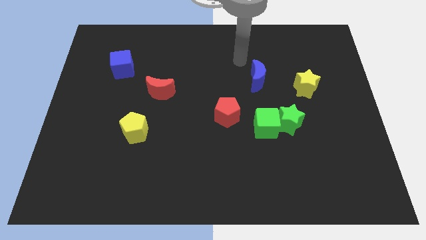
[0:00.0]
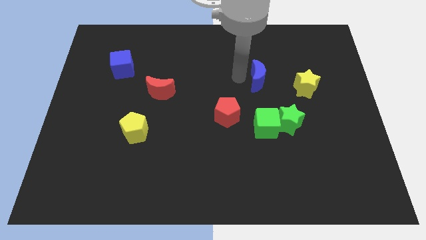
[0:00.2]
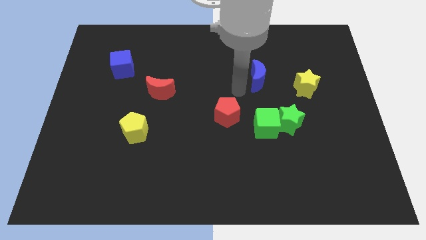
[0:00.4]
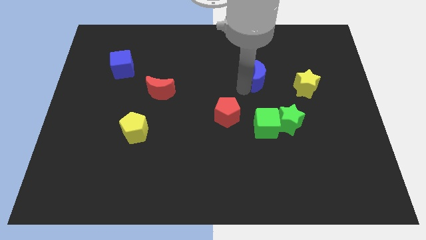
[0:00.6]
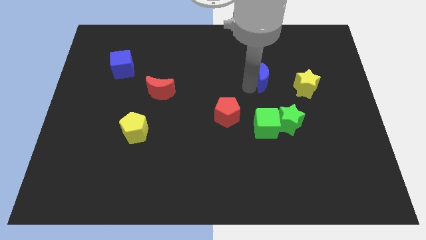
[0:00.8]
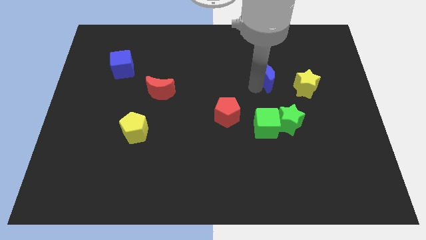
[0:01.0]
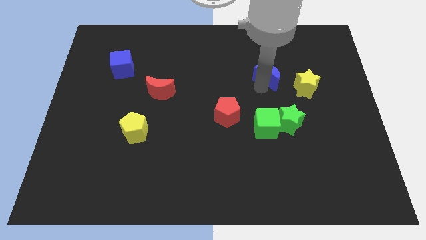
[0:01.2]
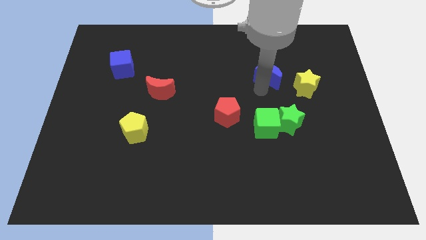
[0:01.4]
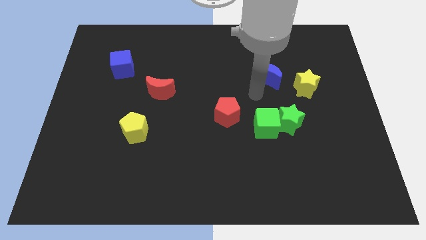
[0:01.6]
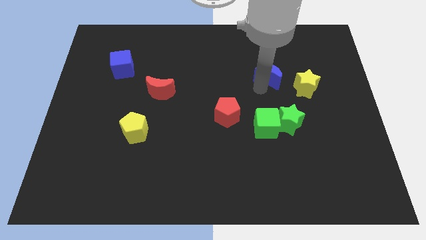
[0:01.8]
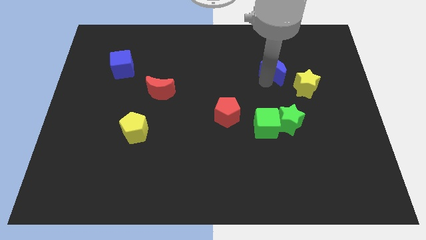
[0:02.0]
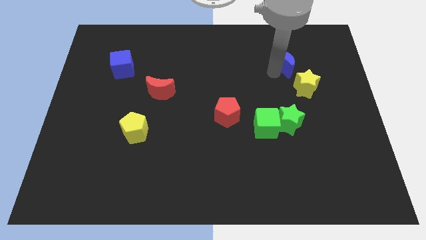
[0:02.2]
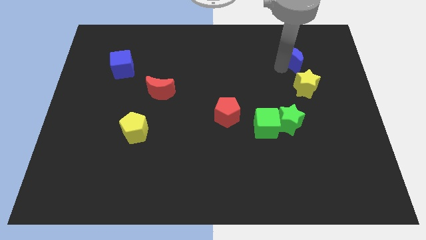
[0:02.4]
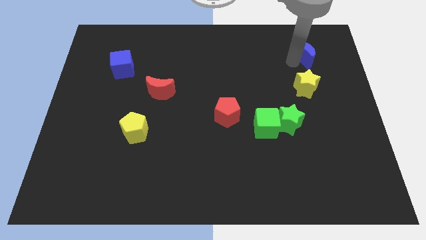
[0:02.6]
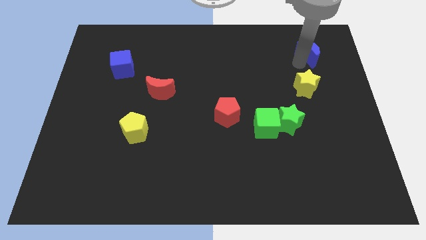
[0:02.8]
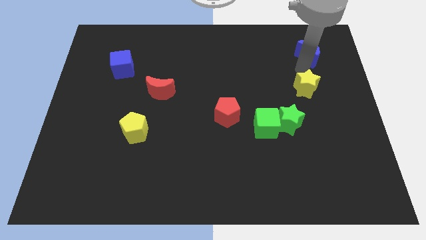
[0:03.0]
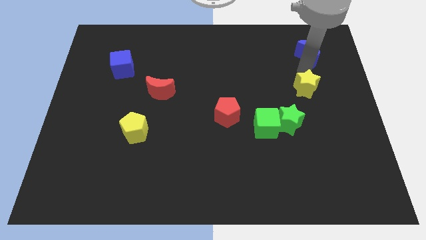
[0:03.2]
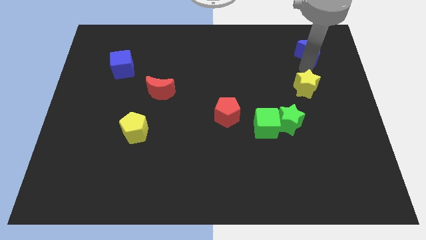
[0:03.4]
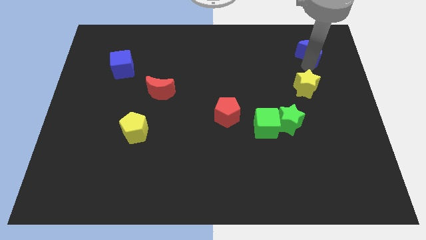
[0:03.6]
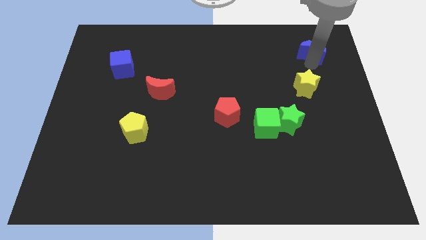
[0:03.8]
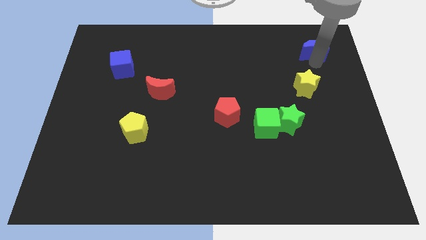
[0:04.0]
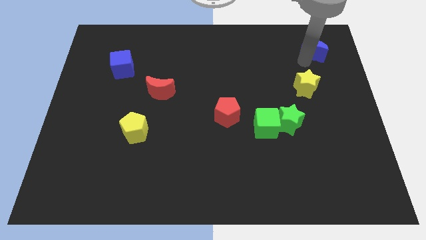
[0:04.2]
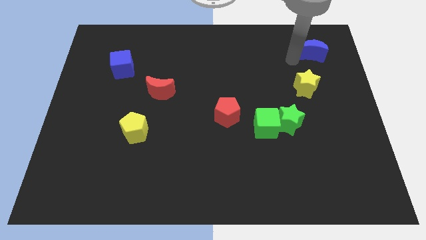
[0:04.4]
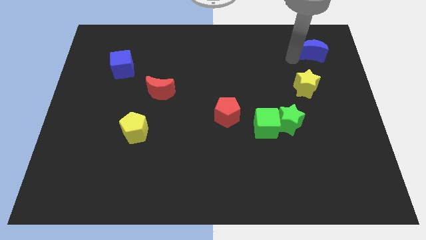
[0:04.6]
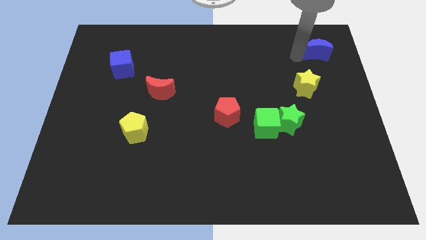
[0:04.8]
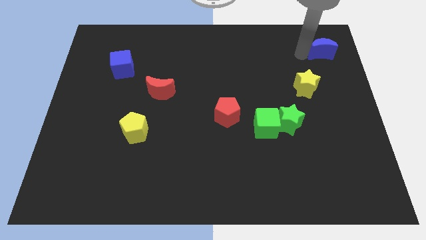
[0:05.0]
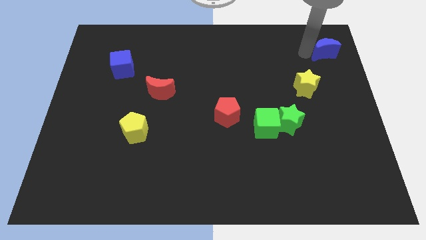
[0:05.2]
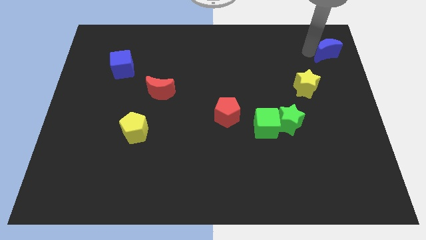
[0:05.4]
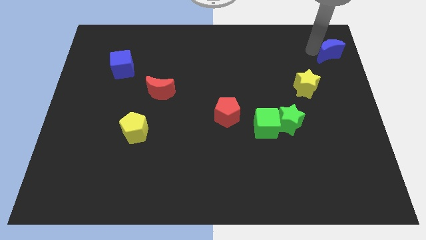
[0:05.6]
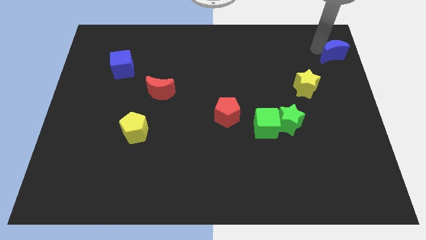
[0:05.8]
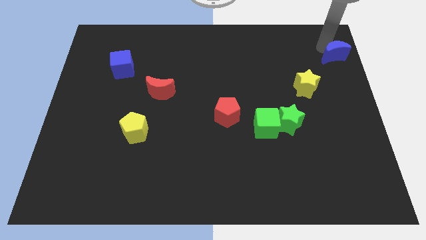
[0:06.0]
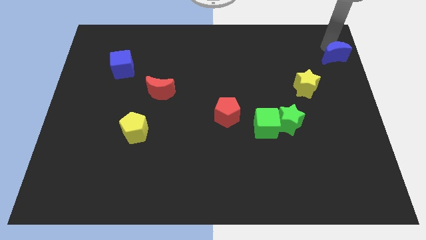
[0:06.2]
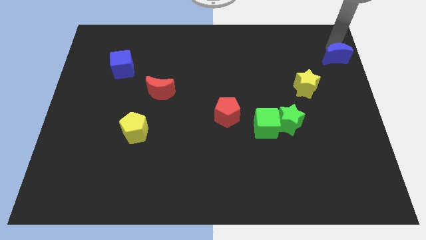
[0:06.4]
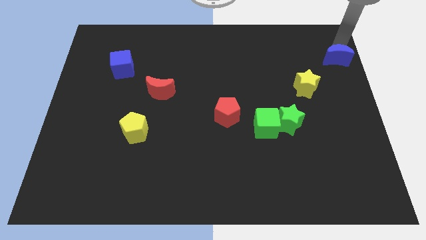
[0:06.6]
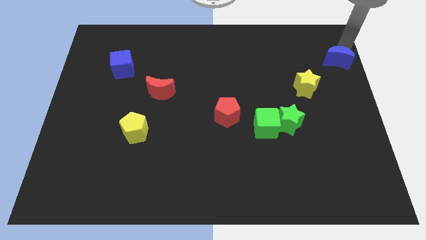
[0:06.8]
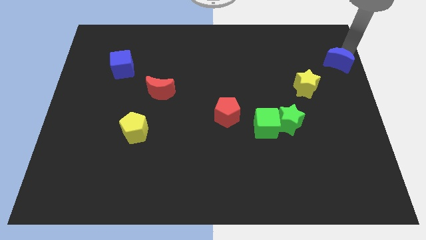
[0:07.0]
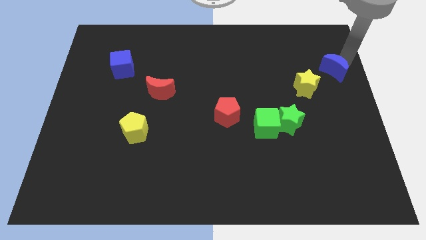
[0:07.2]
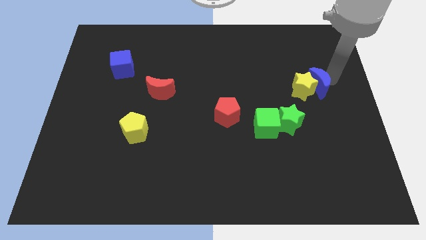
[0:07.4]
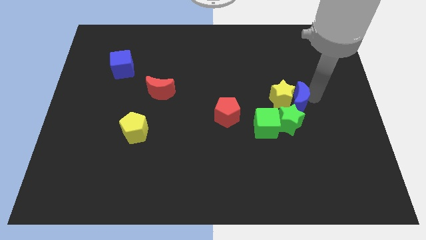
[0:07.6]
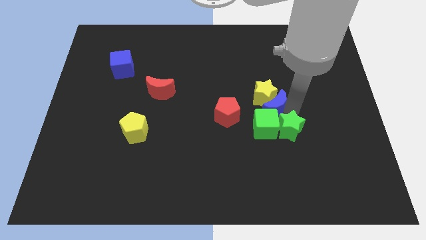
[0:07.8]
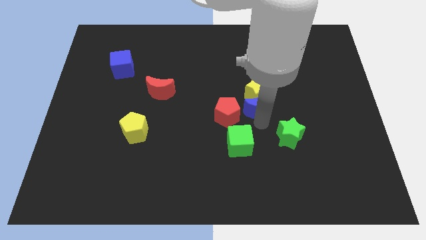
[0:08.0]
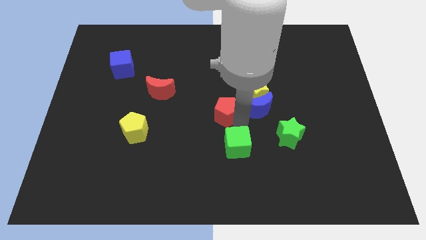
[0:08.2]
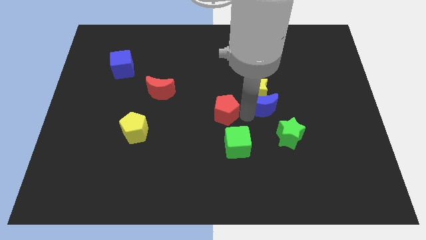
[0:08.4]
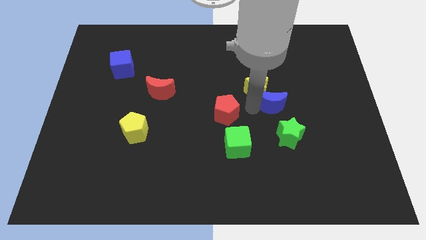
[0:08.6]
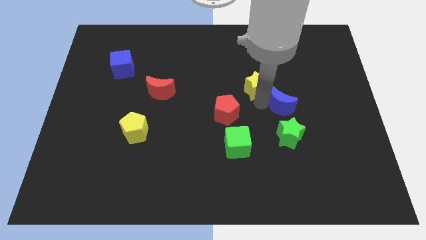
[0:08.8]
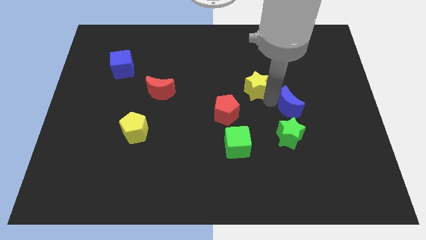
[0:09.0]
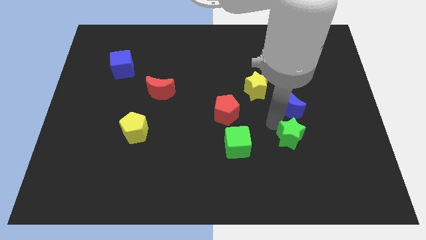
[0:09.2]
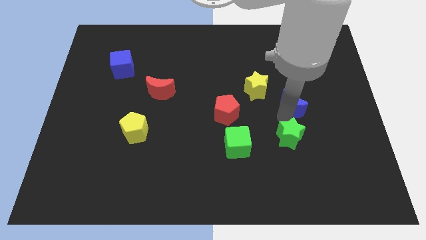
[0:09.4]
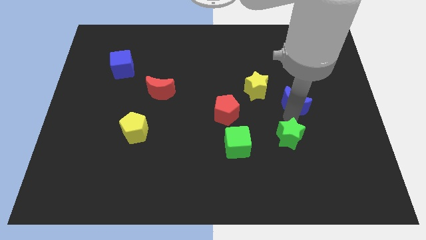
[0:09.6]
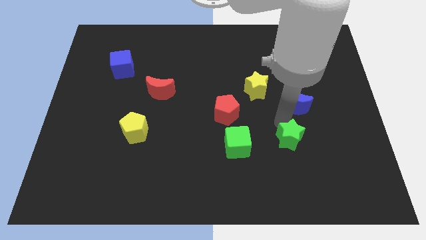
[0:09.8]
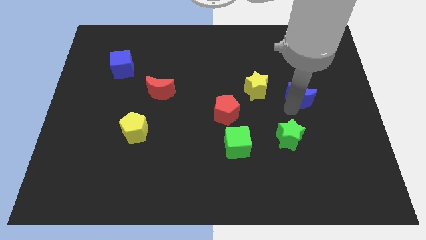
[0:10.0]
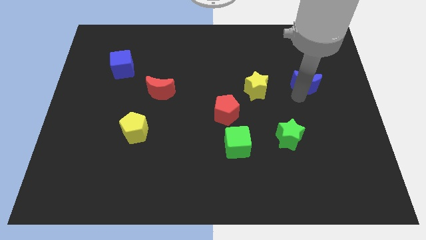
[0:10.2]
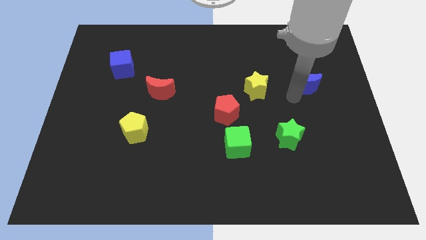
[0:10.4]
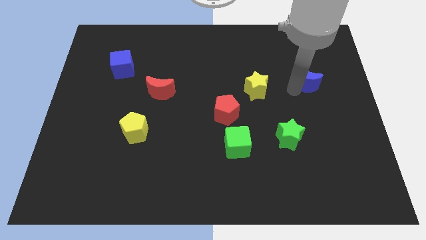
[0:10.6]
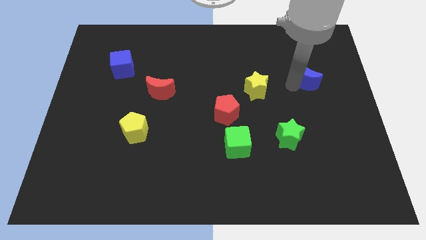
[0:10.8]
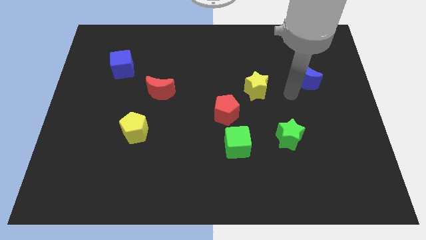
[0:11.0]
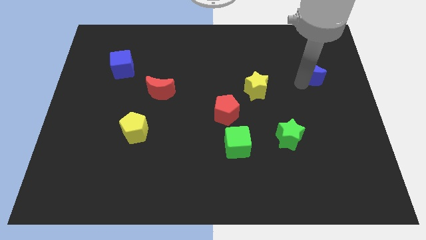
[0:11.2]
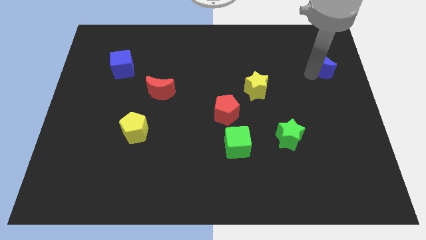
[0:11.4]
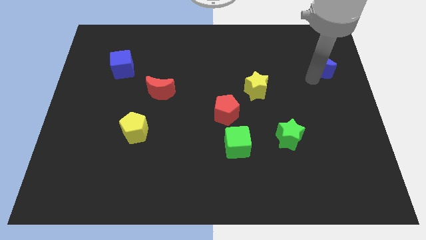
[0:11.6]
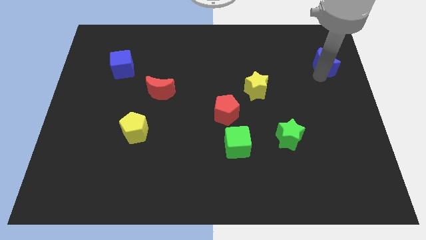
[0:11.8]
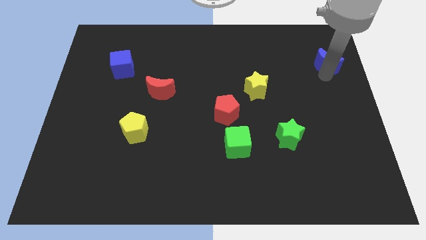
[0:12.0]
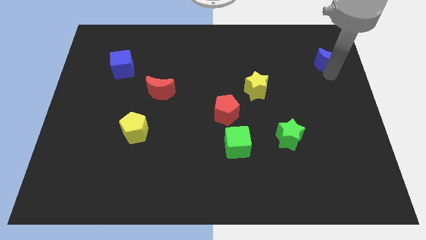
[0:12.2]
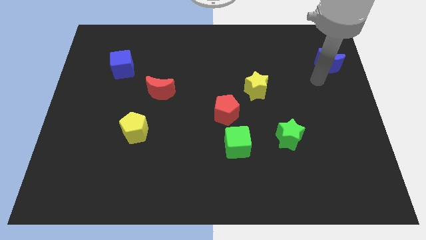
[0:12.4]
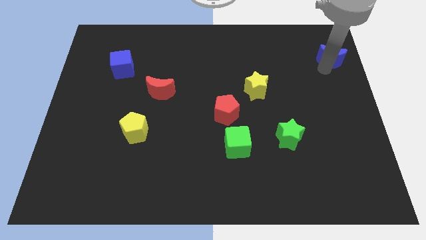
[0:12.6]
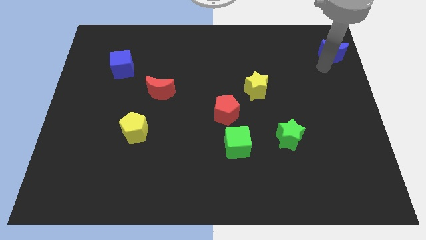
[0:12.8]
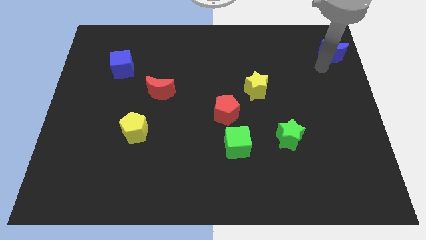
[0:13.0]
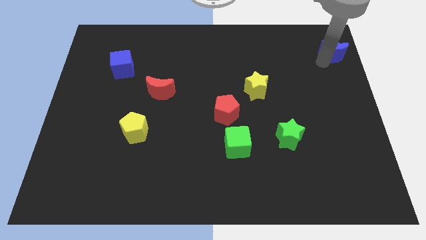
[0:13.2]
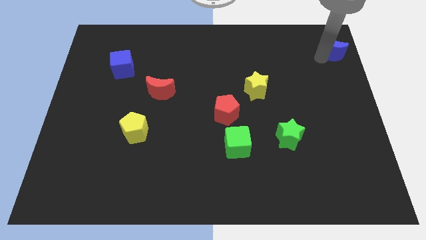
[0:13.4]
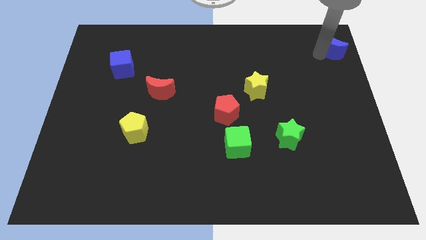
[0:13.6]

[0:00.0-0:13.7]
push the blue moon to the top right

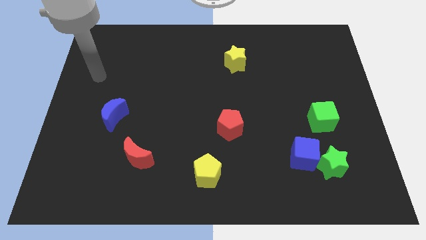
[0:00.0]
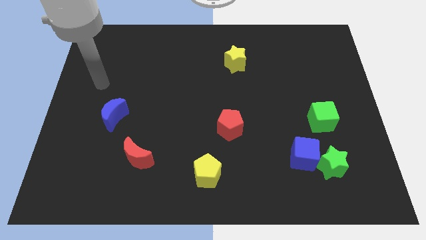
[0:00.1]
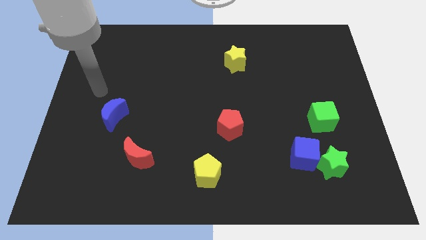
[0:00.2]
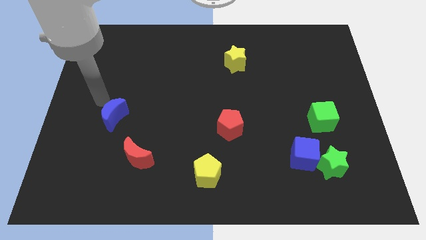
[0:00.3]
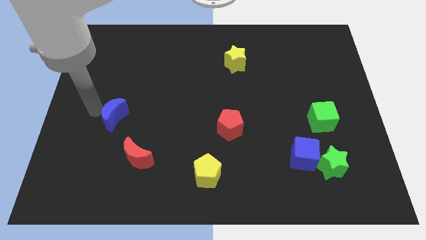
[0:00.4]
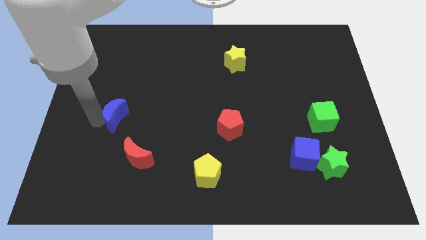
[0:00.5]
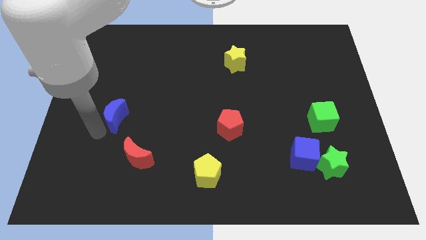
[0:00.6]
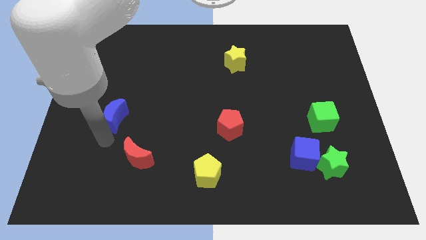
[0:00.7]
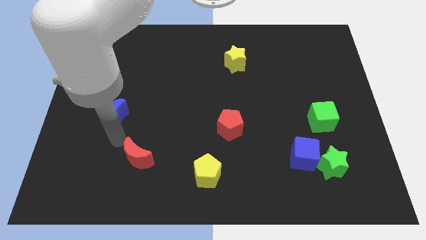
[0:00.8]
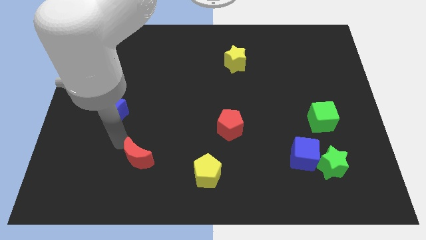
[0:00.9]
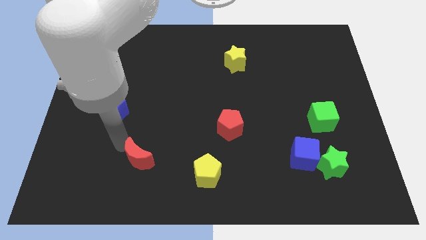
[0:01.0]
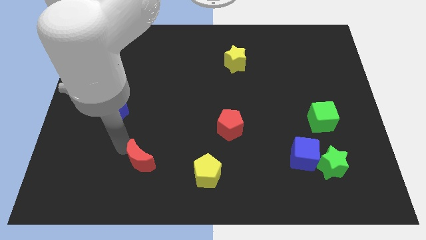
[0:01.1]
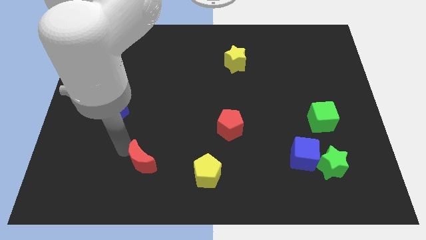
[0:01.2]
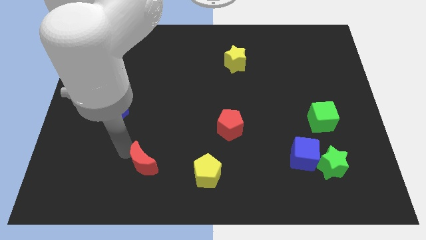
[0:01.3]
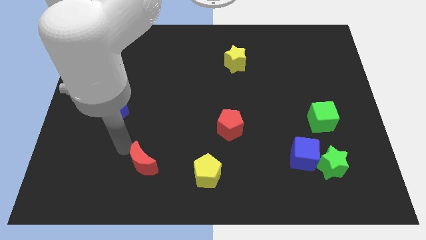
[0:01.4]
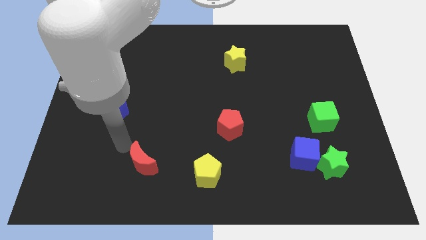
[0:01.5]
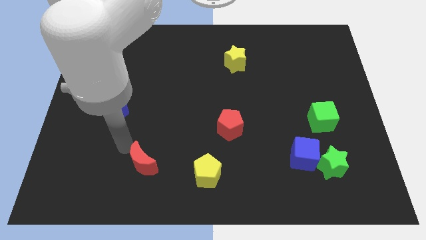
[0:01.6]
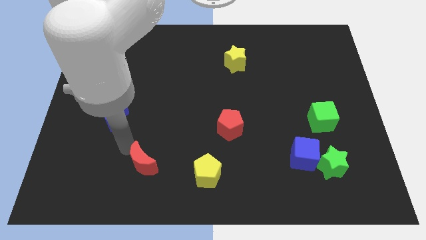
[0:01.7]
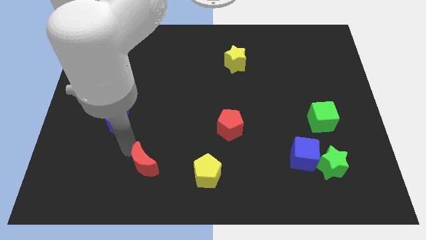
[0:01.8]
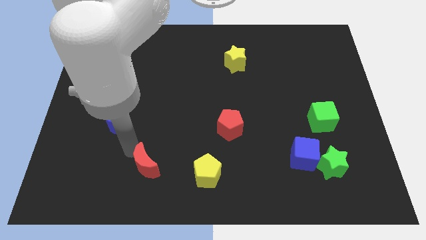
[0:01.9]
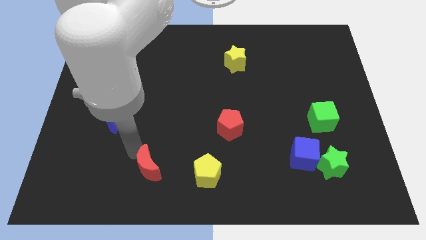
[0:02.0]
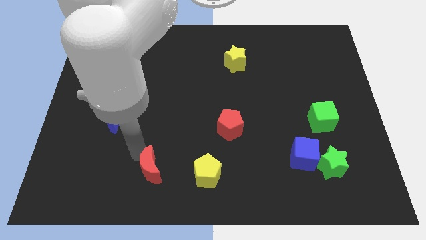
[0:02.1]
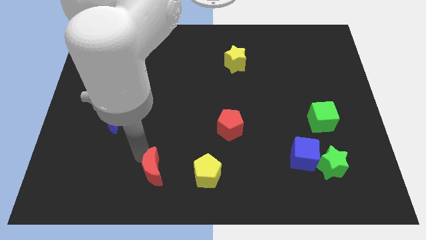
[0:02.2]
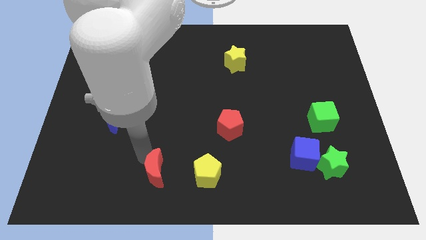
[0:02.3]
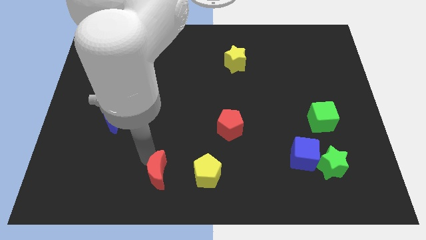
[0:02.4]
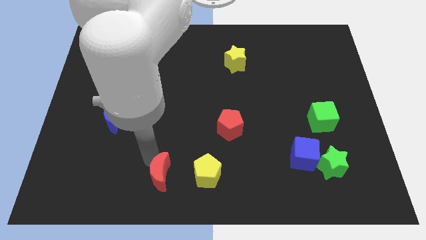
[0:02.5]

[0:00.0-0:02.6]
move the red moon to the bottom side
